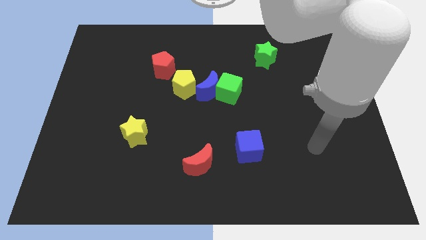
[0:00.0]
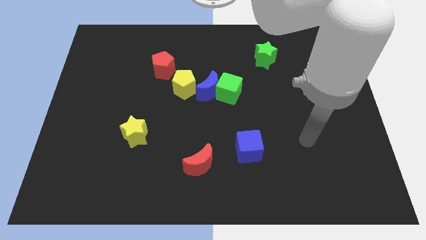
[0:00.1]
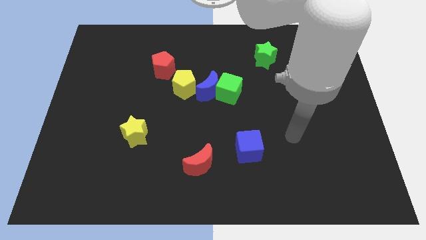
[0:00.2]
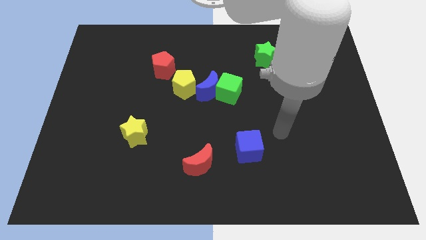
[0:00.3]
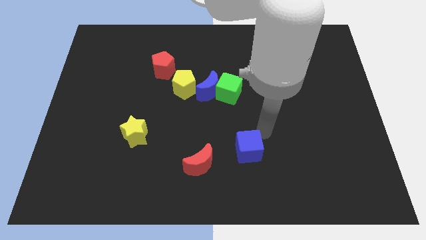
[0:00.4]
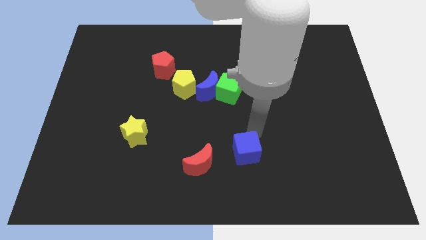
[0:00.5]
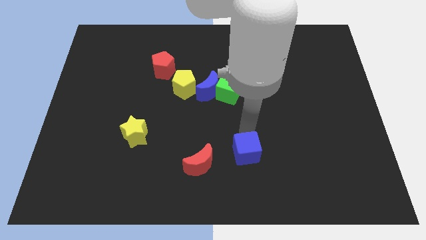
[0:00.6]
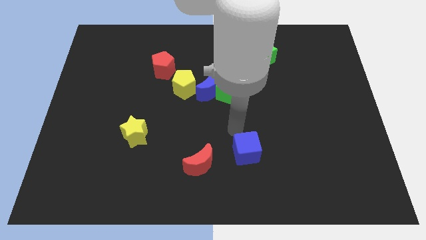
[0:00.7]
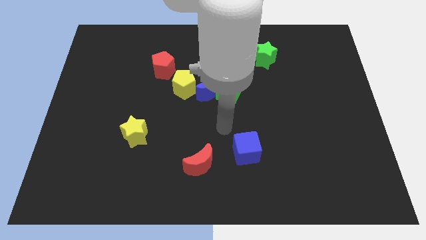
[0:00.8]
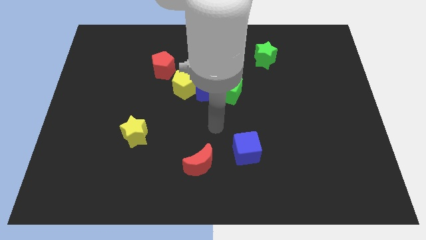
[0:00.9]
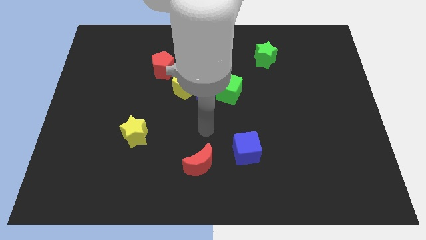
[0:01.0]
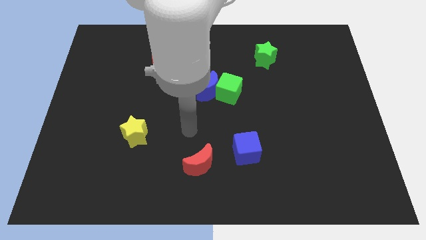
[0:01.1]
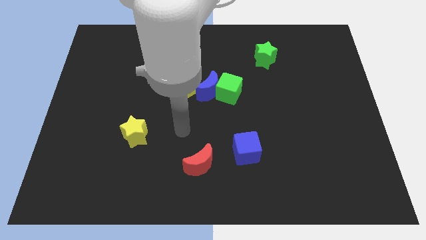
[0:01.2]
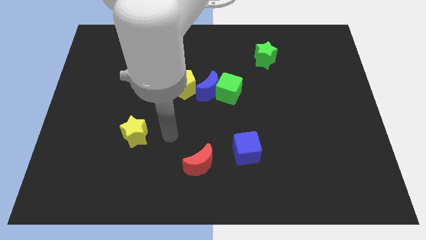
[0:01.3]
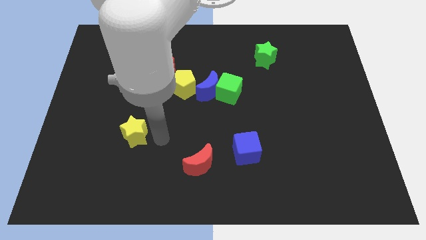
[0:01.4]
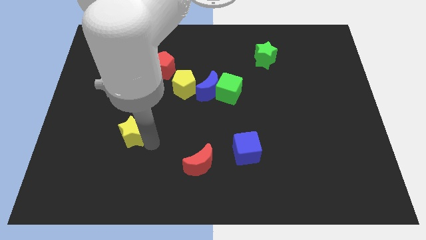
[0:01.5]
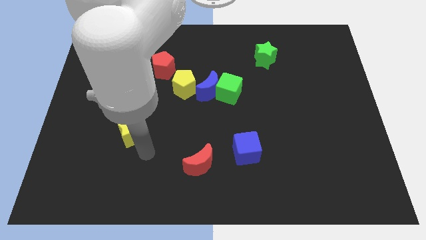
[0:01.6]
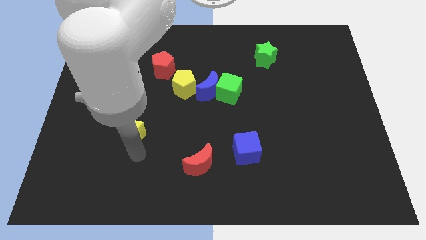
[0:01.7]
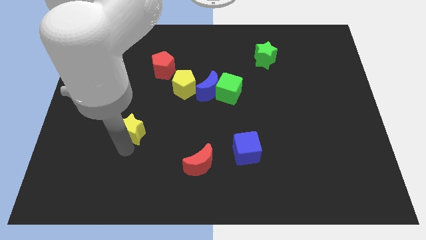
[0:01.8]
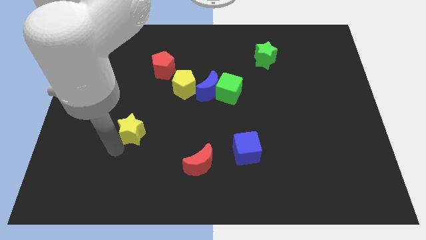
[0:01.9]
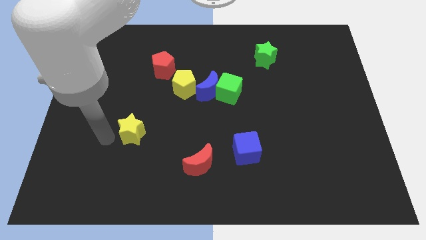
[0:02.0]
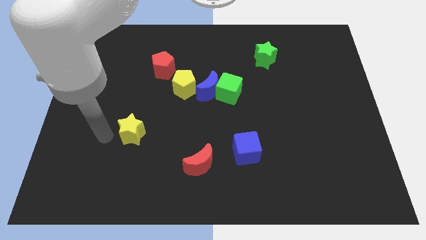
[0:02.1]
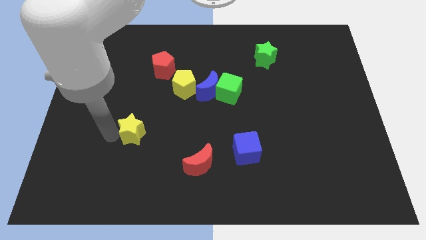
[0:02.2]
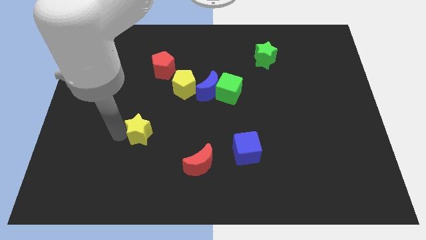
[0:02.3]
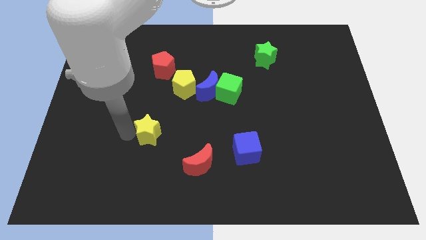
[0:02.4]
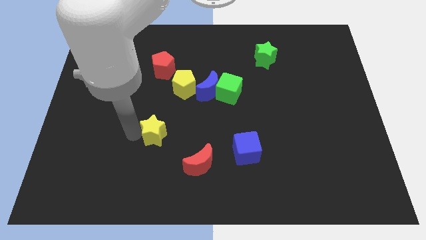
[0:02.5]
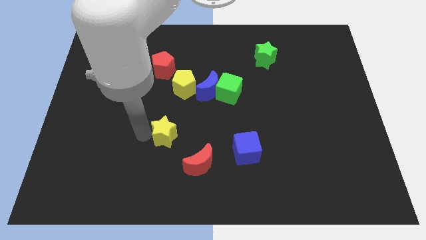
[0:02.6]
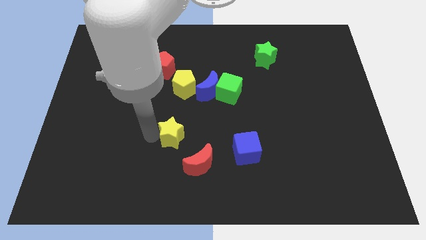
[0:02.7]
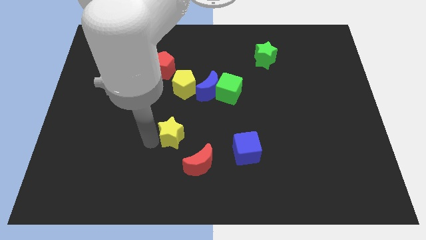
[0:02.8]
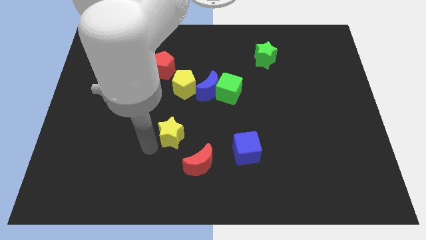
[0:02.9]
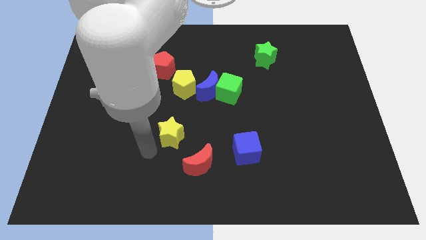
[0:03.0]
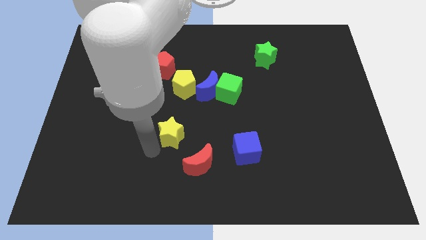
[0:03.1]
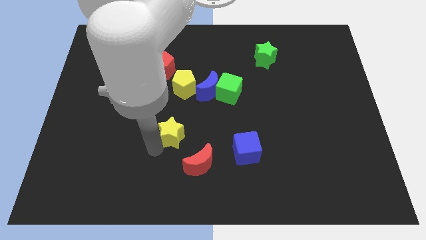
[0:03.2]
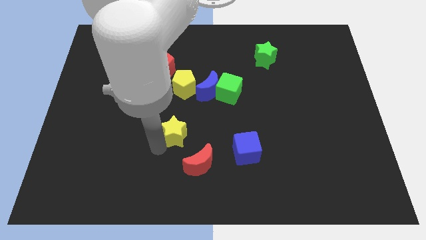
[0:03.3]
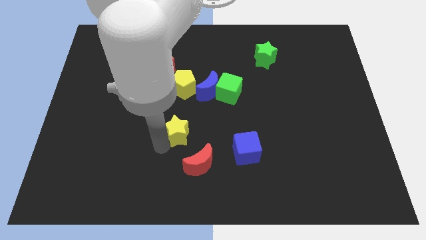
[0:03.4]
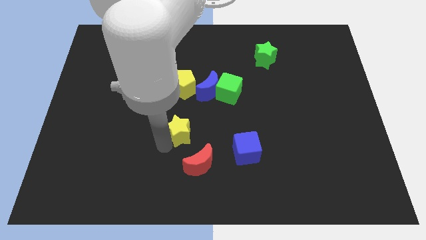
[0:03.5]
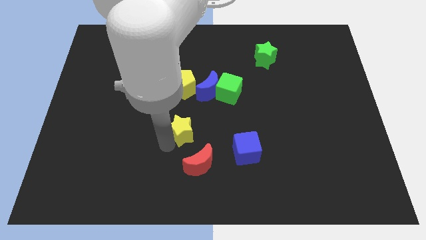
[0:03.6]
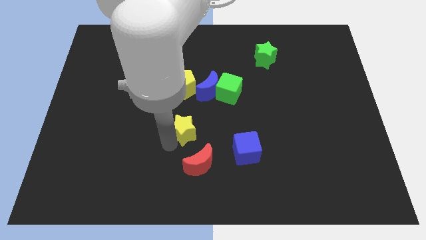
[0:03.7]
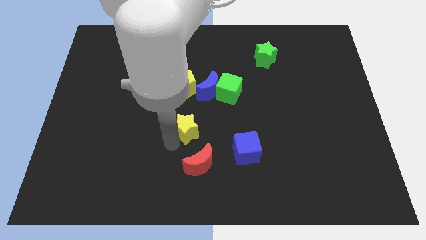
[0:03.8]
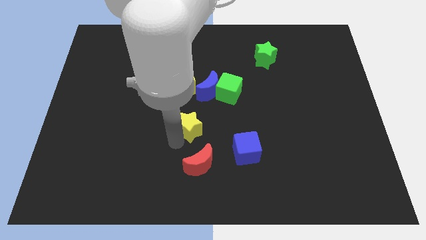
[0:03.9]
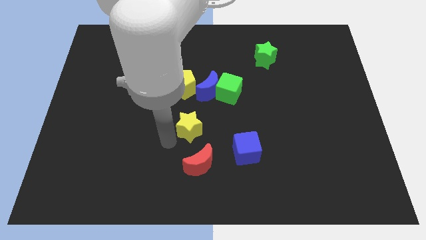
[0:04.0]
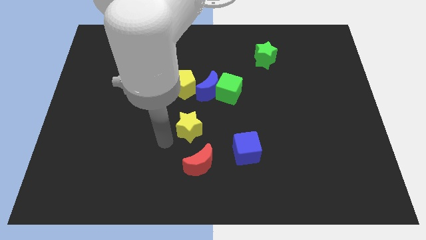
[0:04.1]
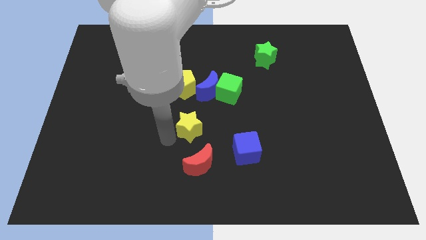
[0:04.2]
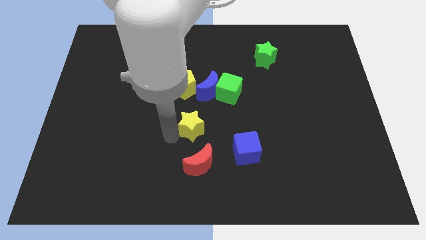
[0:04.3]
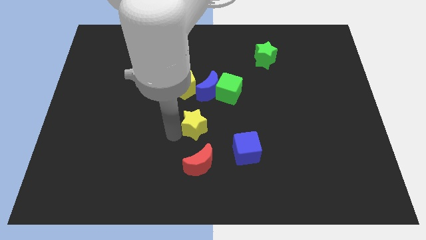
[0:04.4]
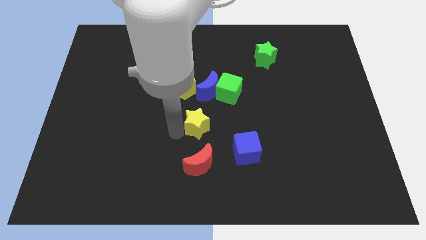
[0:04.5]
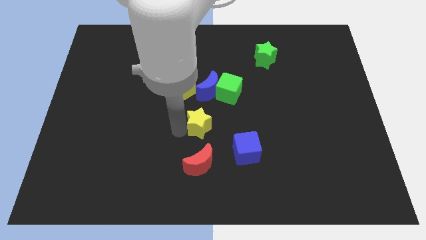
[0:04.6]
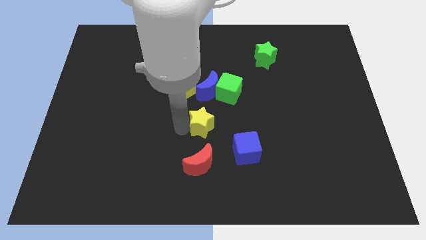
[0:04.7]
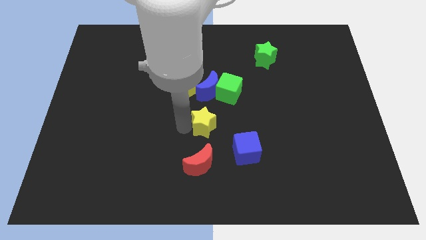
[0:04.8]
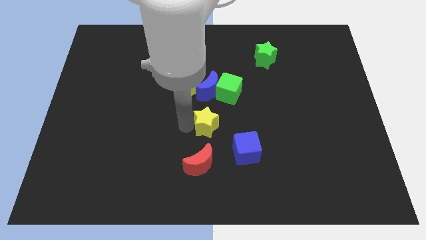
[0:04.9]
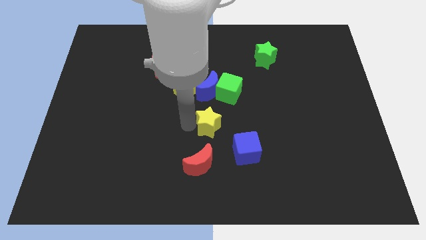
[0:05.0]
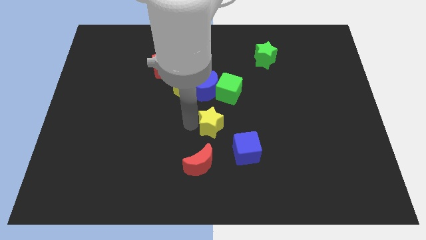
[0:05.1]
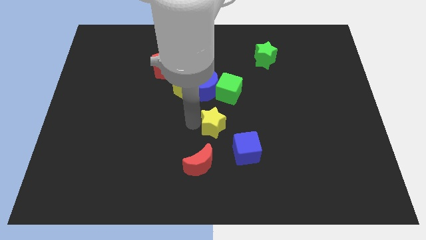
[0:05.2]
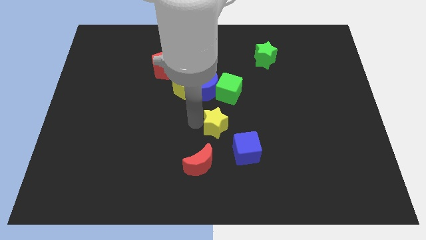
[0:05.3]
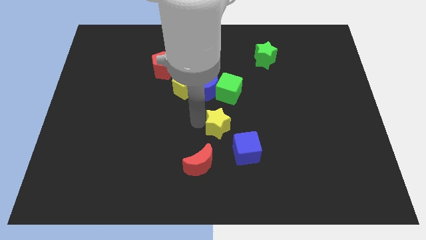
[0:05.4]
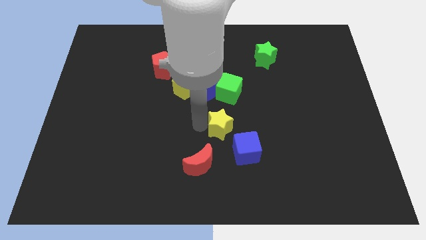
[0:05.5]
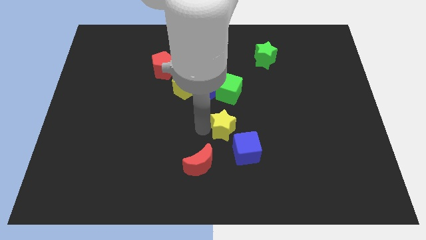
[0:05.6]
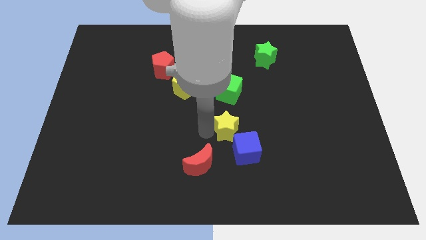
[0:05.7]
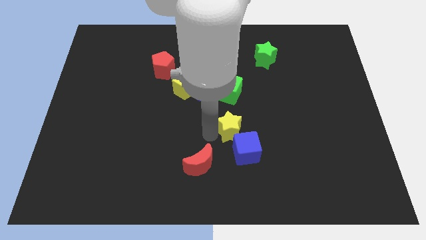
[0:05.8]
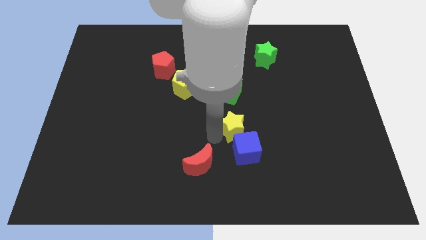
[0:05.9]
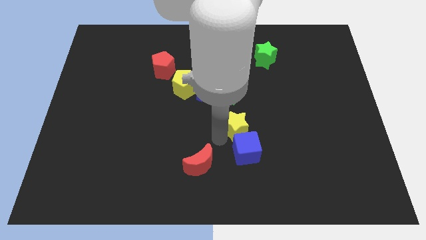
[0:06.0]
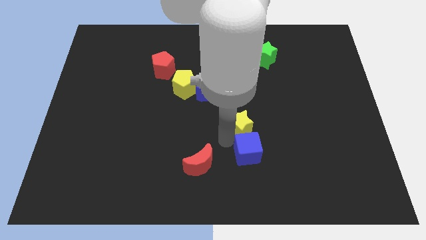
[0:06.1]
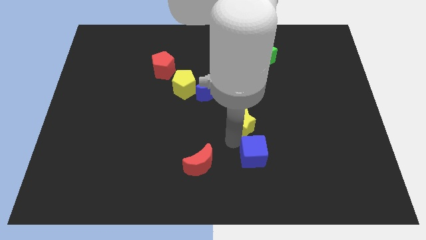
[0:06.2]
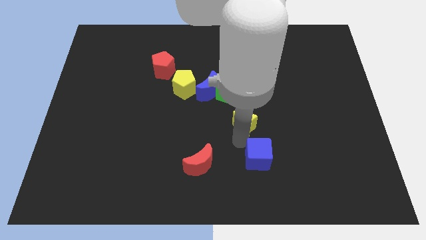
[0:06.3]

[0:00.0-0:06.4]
push the yellow star to the bottom right of the green cube

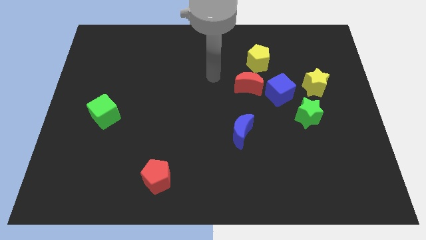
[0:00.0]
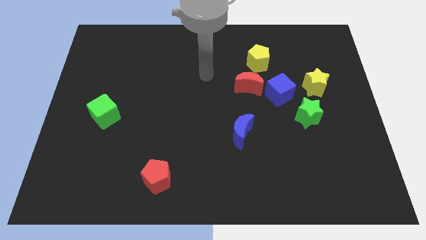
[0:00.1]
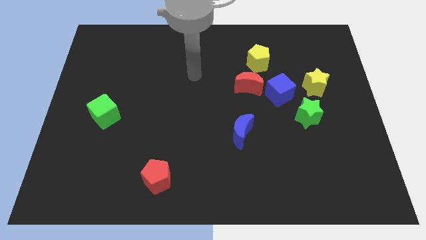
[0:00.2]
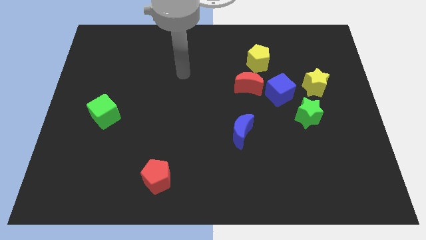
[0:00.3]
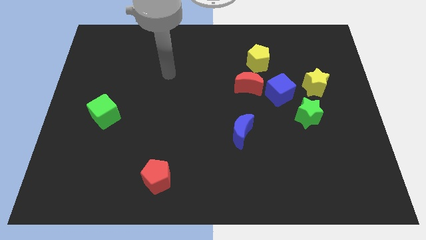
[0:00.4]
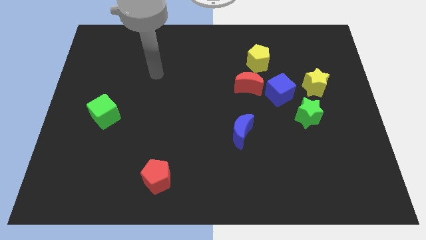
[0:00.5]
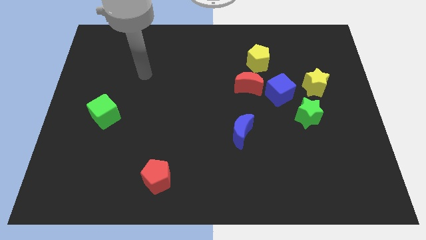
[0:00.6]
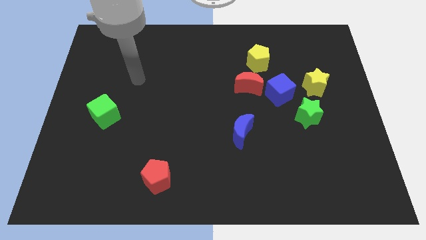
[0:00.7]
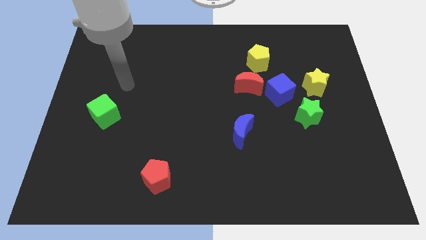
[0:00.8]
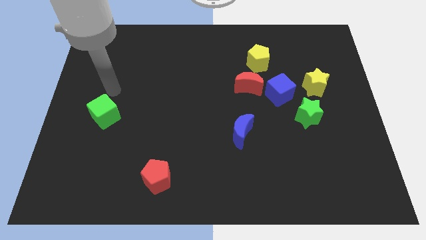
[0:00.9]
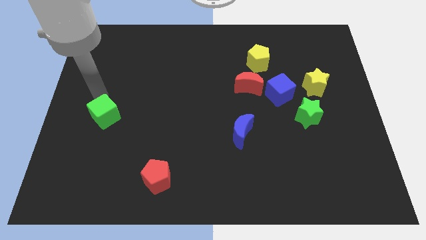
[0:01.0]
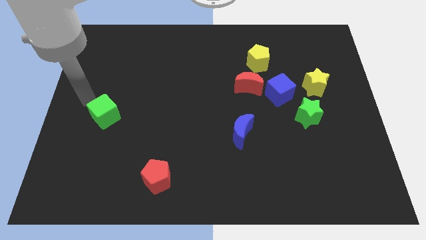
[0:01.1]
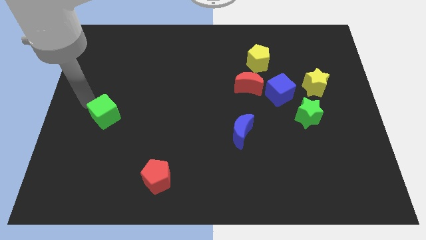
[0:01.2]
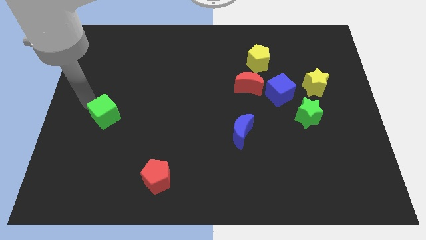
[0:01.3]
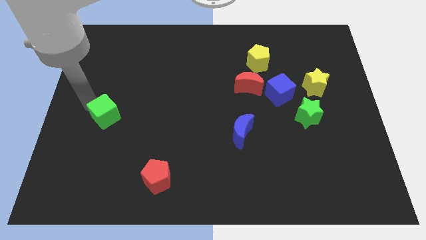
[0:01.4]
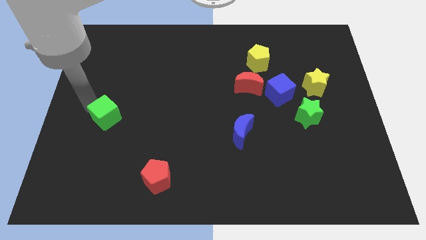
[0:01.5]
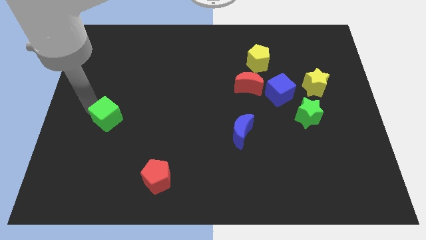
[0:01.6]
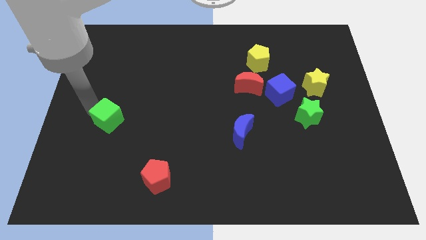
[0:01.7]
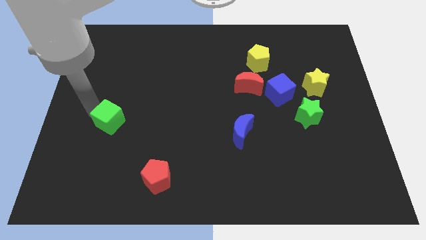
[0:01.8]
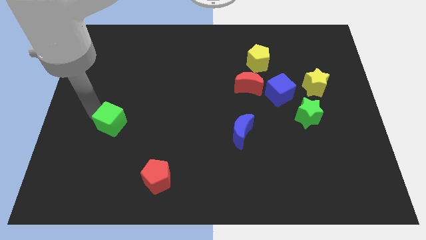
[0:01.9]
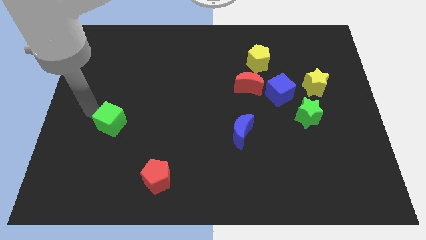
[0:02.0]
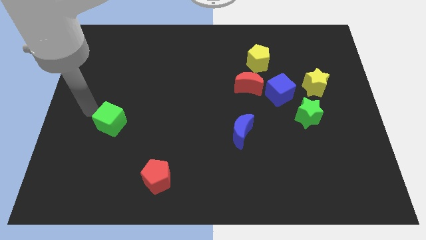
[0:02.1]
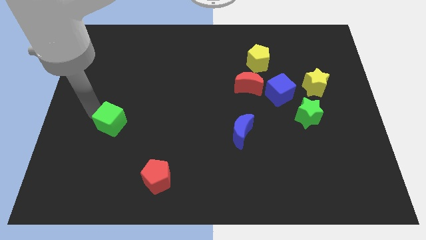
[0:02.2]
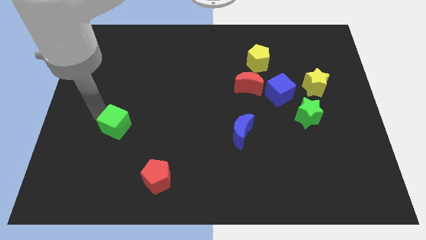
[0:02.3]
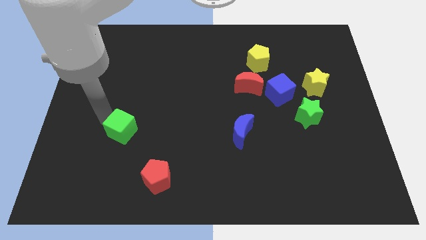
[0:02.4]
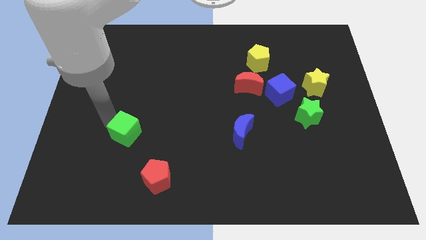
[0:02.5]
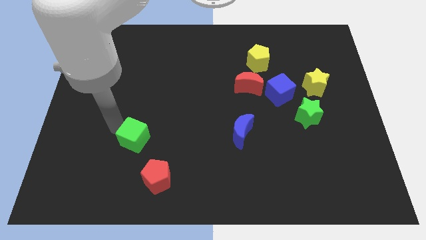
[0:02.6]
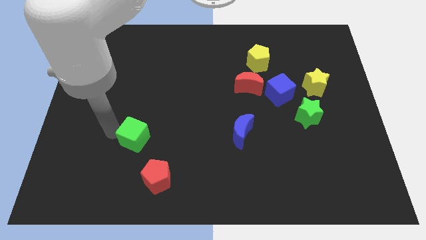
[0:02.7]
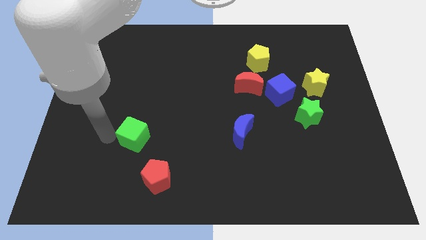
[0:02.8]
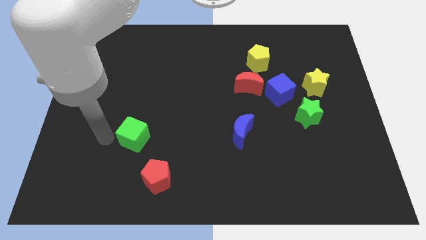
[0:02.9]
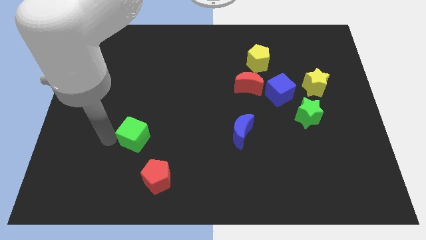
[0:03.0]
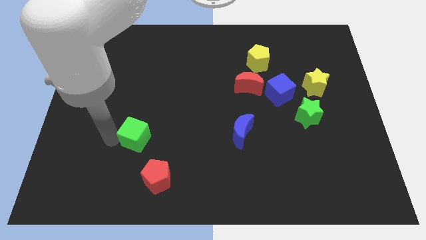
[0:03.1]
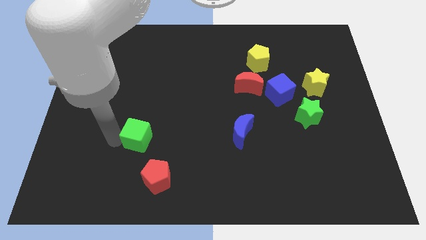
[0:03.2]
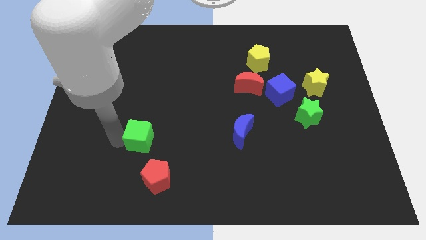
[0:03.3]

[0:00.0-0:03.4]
slide the green cube to the top side of the red pentagon
